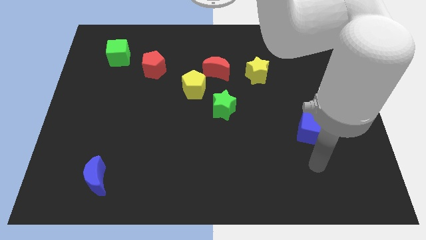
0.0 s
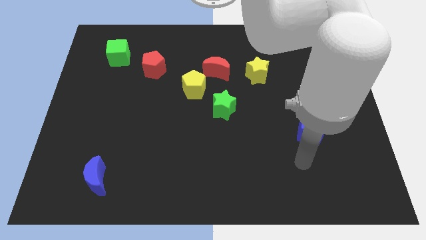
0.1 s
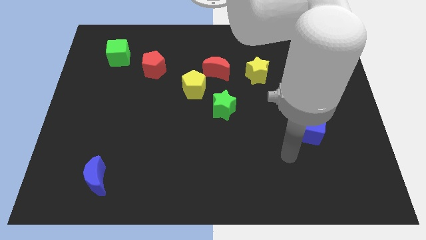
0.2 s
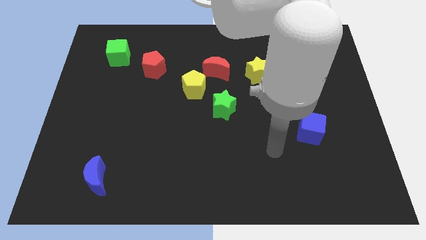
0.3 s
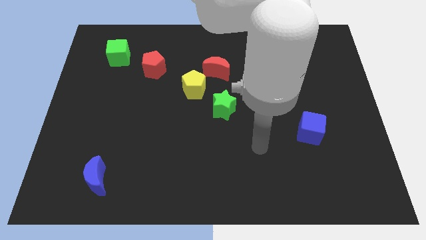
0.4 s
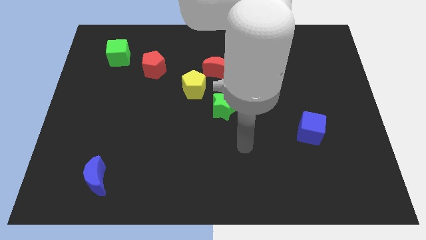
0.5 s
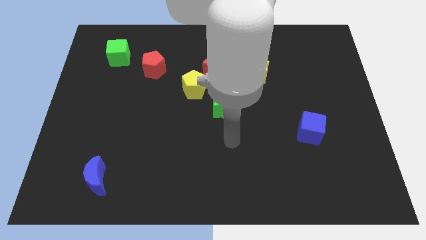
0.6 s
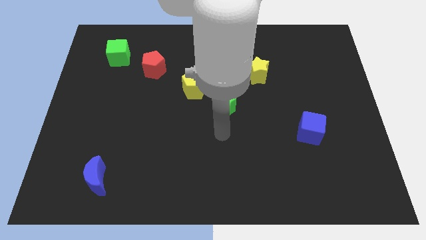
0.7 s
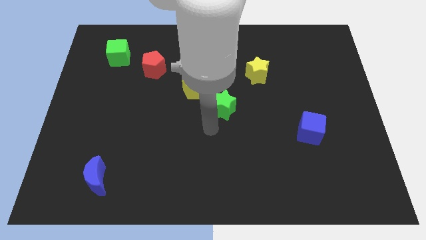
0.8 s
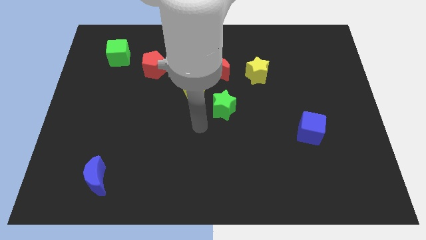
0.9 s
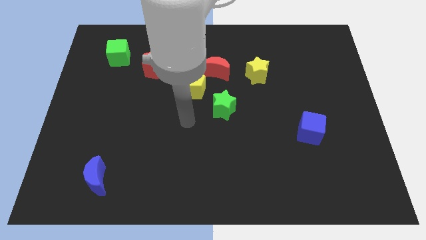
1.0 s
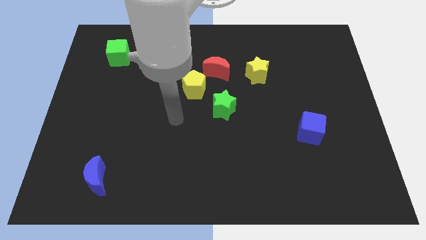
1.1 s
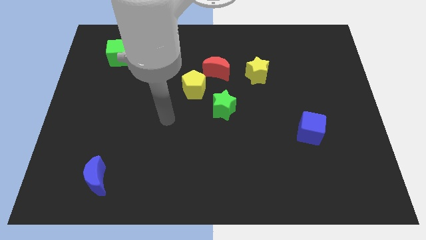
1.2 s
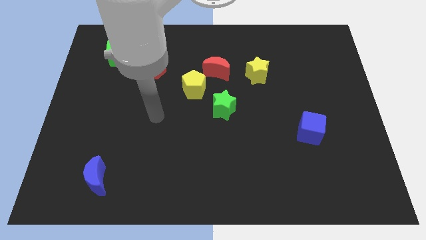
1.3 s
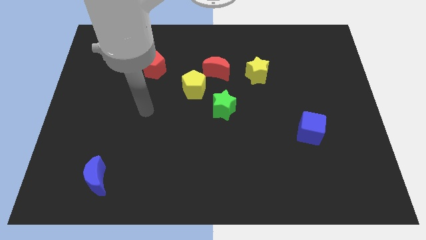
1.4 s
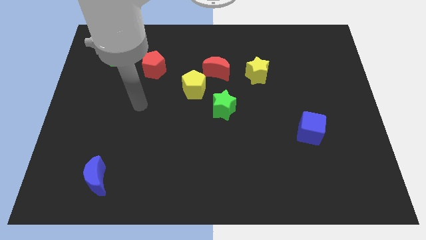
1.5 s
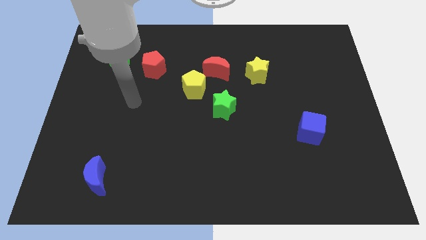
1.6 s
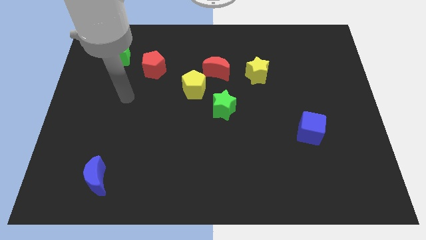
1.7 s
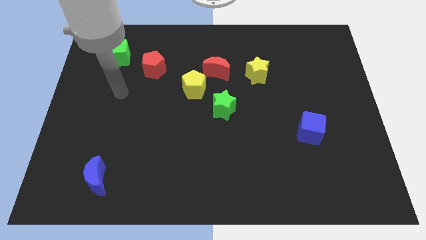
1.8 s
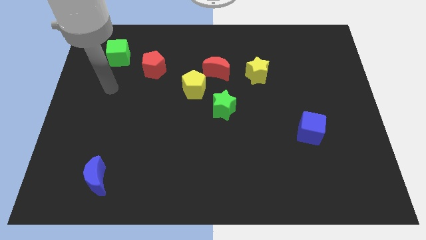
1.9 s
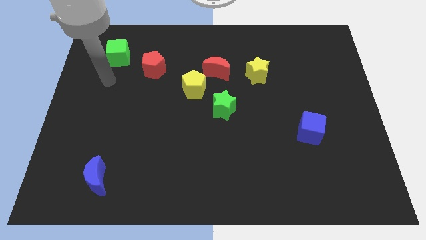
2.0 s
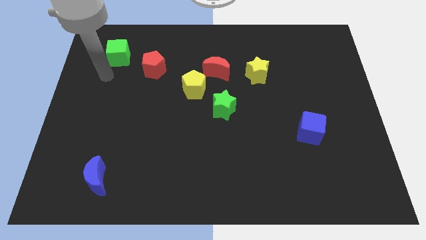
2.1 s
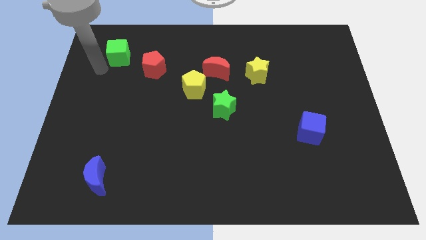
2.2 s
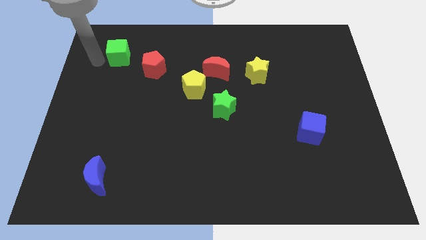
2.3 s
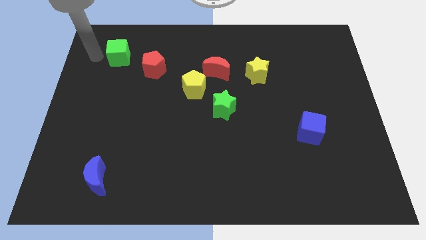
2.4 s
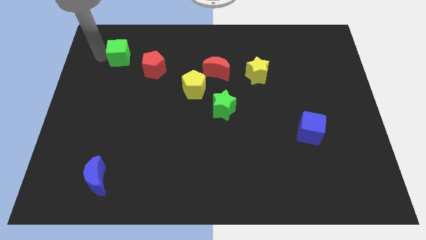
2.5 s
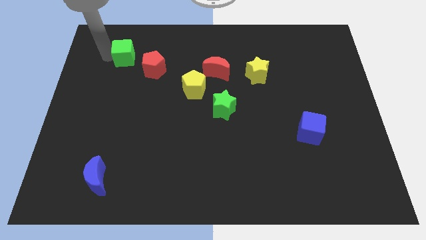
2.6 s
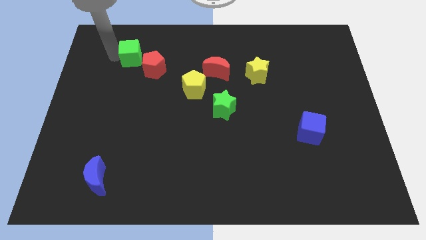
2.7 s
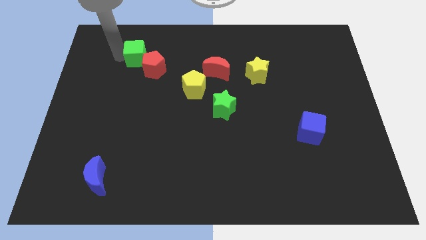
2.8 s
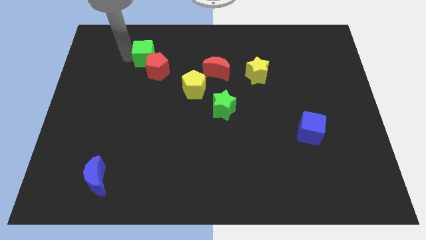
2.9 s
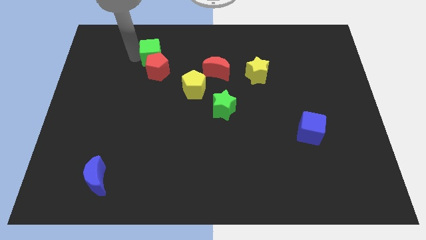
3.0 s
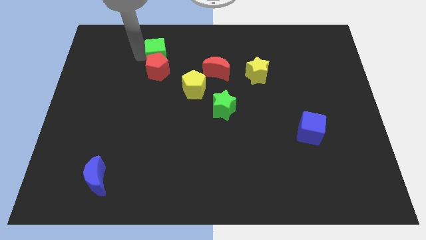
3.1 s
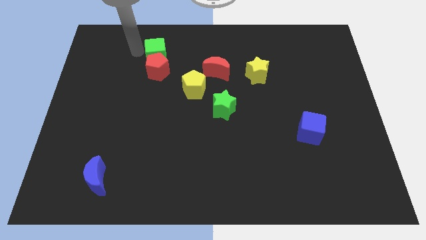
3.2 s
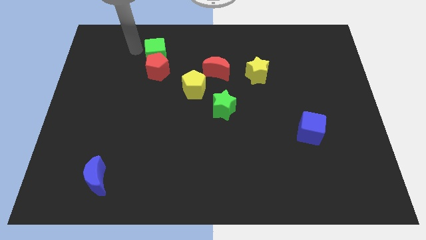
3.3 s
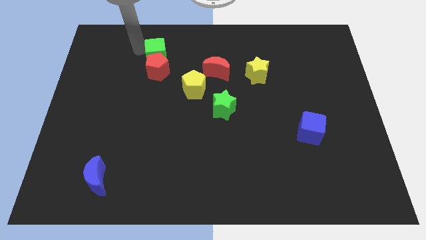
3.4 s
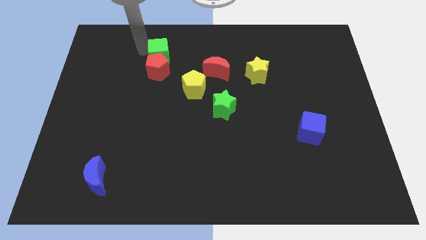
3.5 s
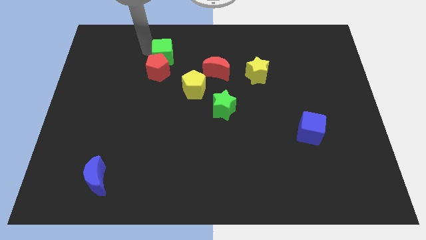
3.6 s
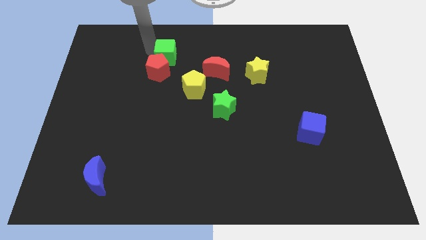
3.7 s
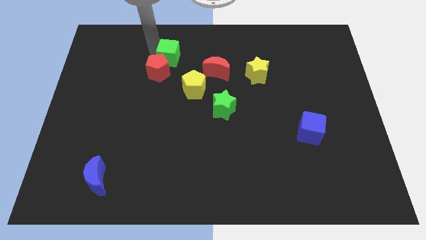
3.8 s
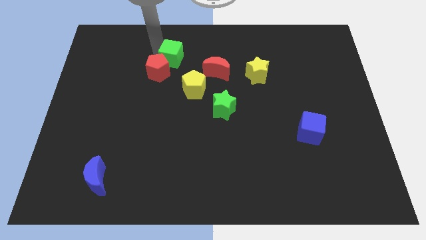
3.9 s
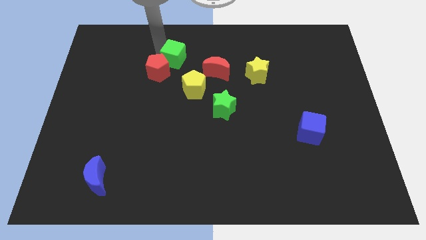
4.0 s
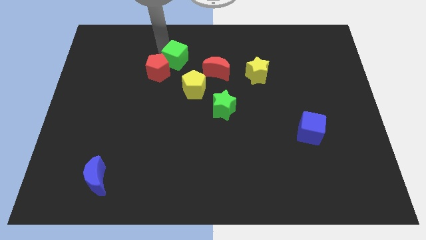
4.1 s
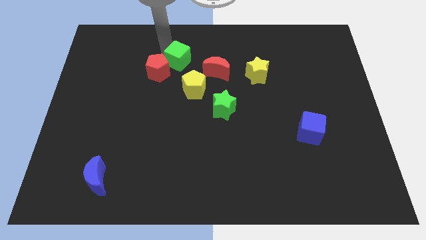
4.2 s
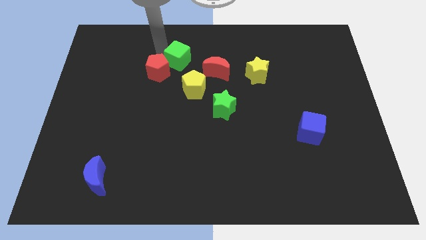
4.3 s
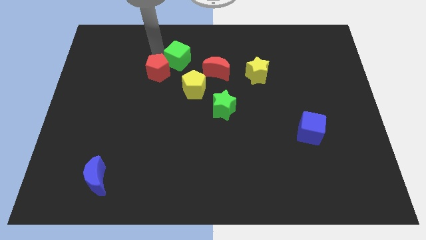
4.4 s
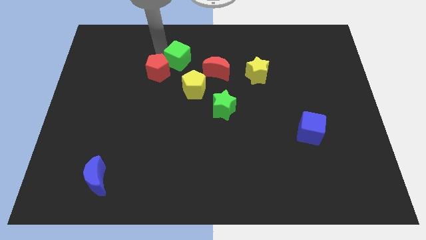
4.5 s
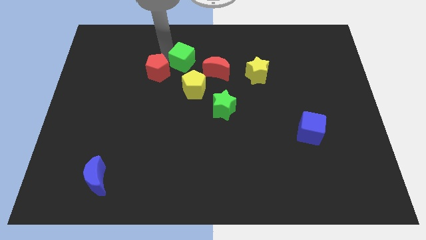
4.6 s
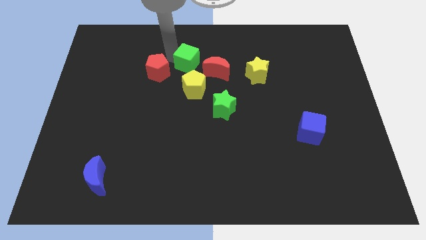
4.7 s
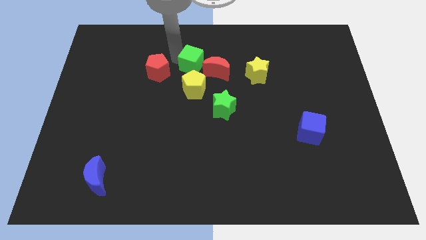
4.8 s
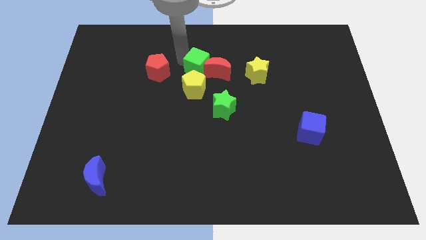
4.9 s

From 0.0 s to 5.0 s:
slide the green cube towards the red moon

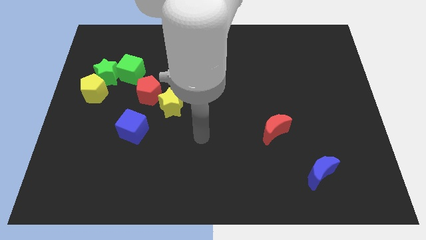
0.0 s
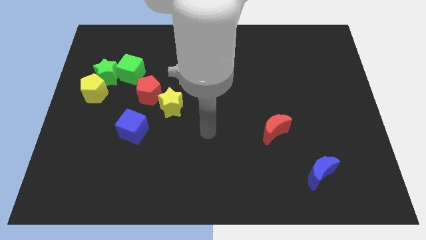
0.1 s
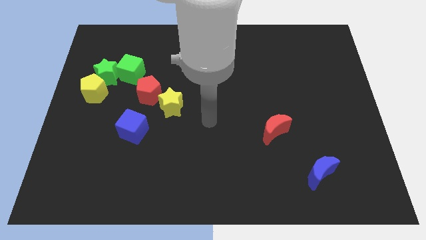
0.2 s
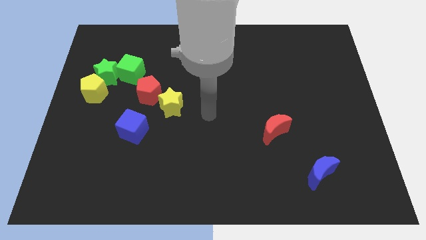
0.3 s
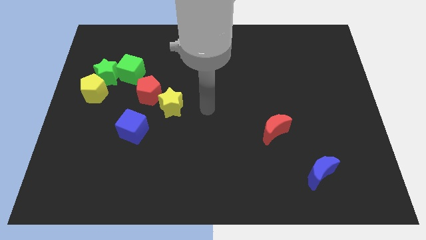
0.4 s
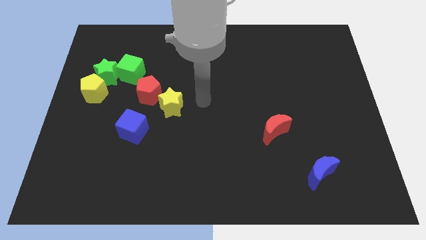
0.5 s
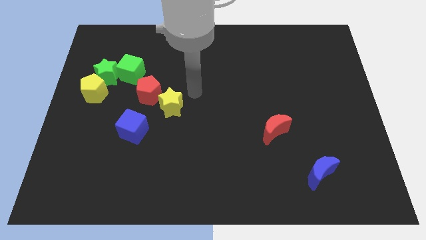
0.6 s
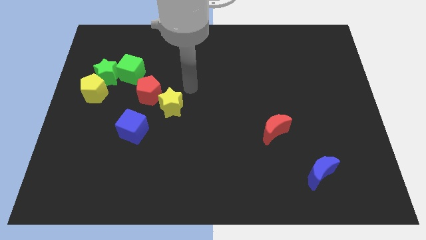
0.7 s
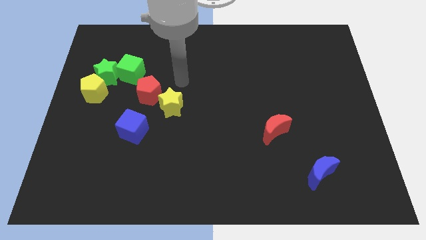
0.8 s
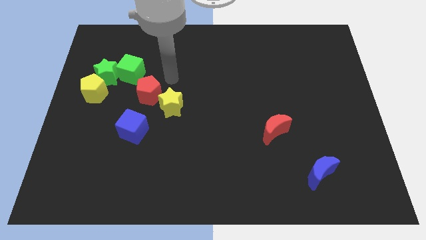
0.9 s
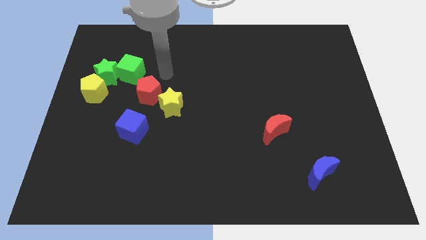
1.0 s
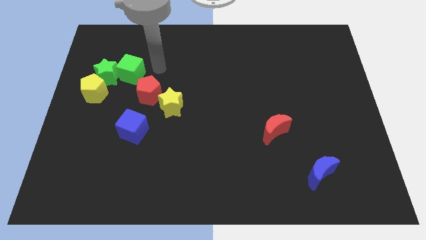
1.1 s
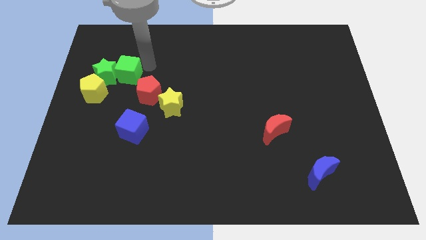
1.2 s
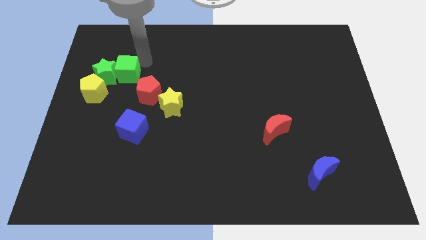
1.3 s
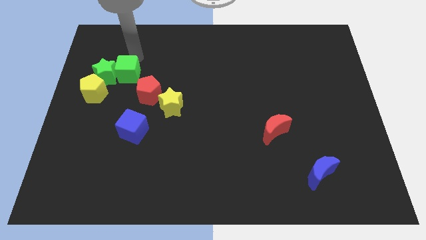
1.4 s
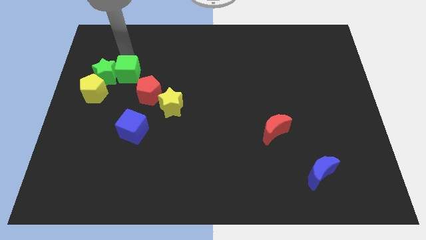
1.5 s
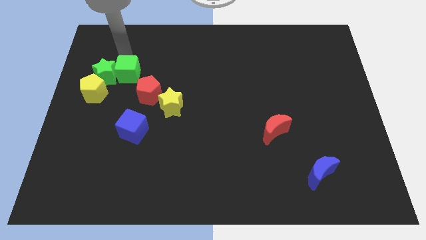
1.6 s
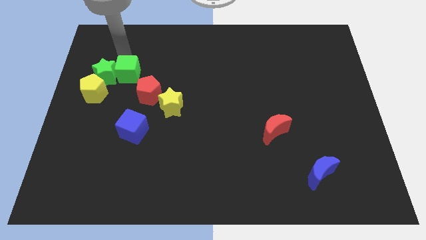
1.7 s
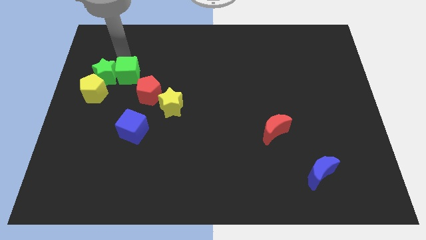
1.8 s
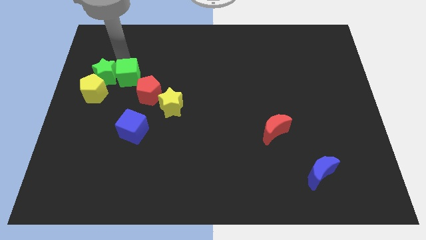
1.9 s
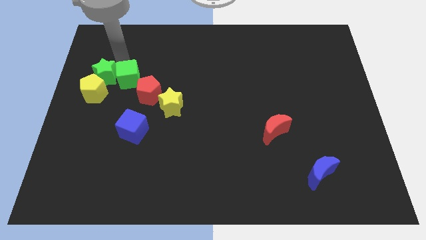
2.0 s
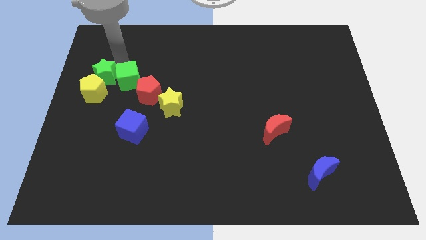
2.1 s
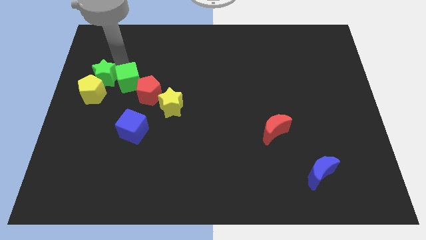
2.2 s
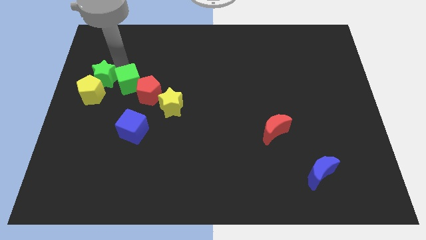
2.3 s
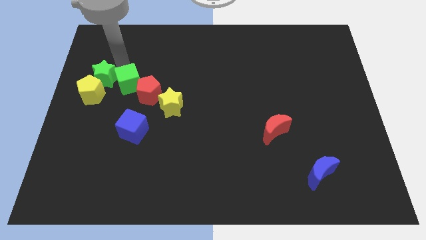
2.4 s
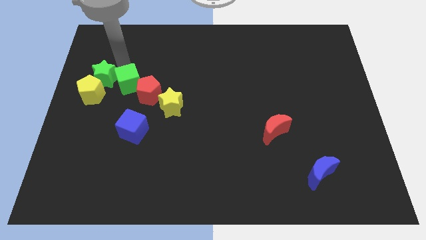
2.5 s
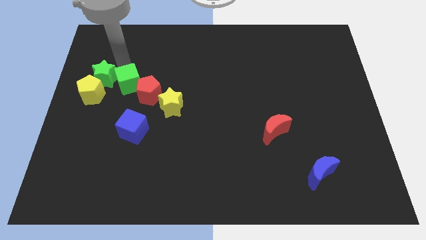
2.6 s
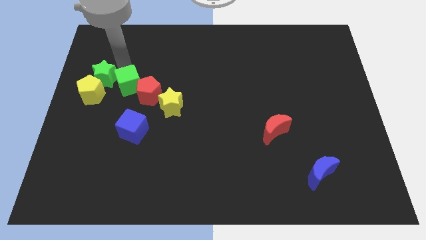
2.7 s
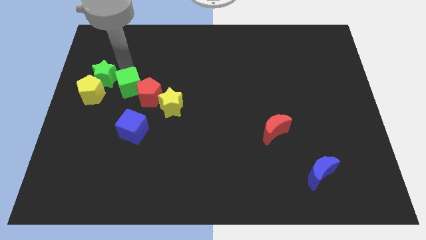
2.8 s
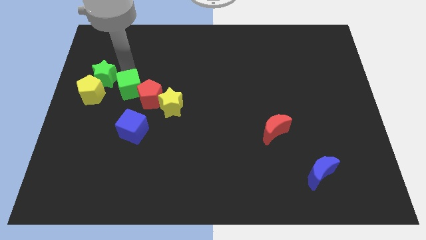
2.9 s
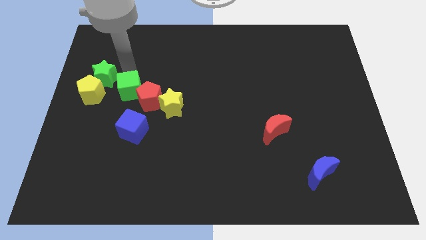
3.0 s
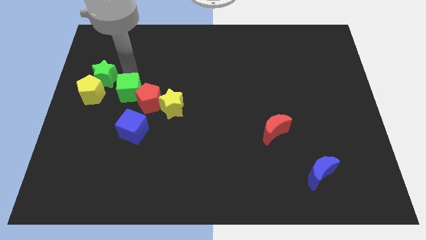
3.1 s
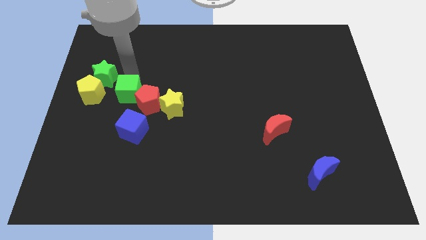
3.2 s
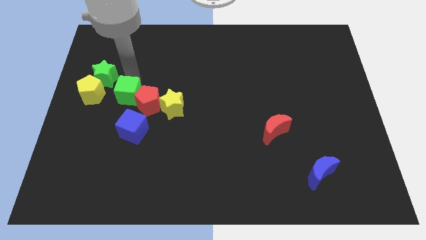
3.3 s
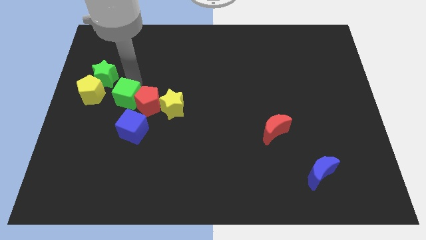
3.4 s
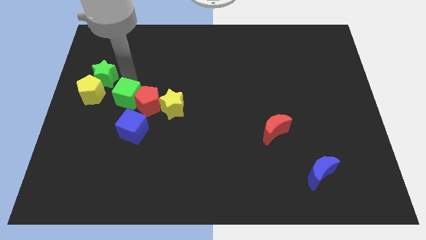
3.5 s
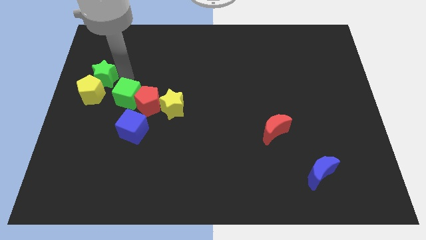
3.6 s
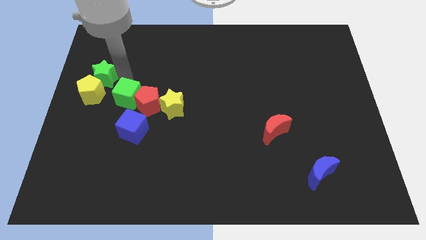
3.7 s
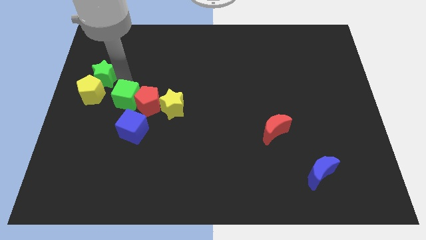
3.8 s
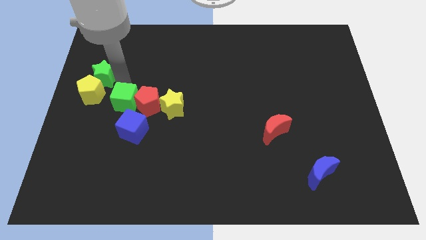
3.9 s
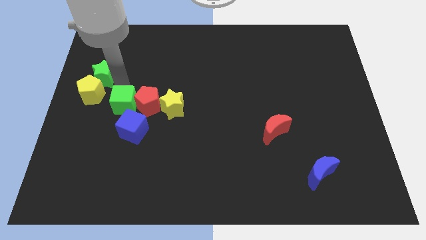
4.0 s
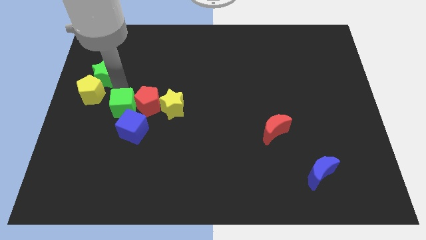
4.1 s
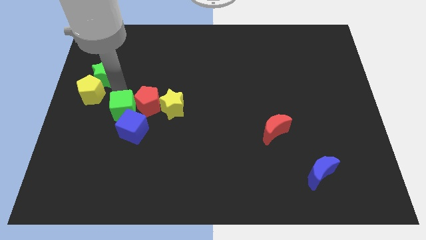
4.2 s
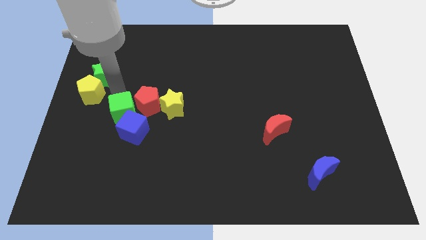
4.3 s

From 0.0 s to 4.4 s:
put the green cube next to the blue cube
